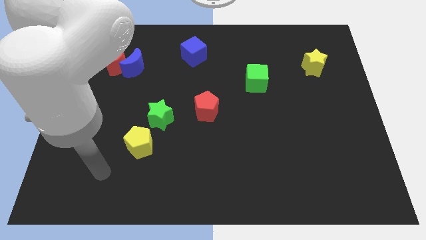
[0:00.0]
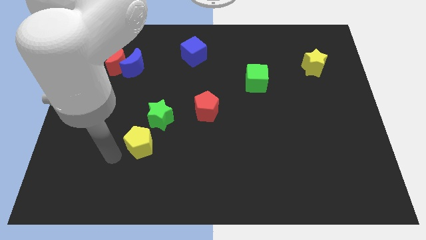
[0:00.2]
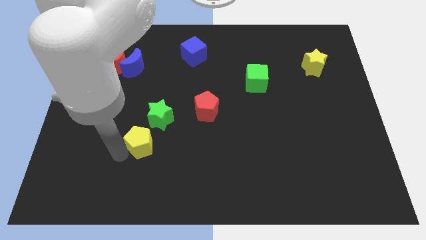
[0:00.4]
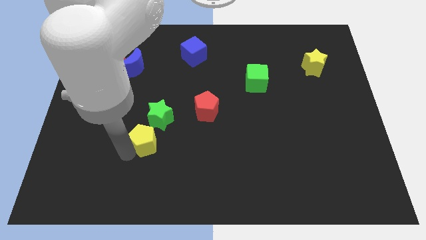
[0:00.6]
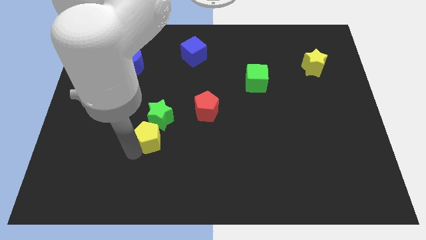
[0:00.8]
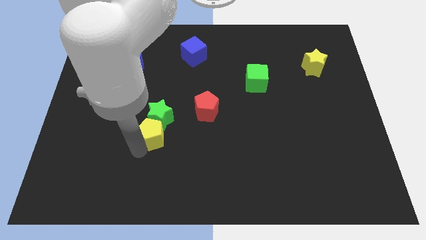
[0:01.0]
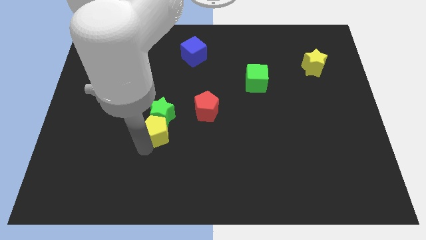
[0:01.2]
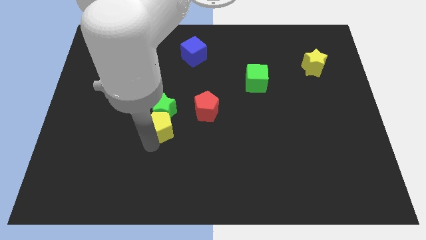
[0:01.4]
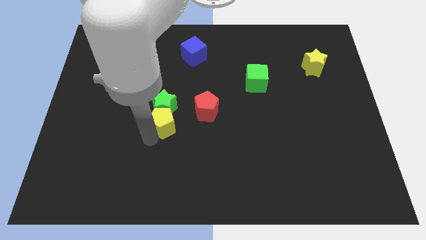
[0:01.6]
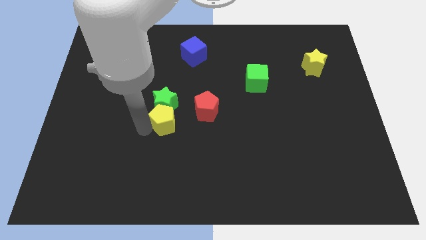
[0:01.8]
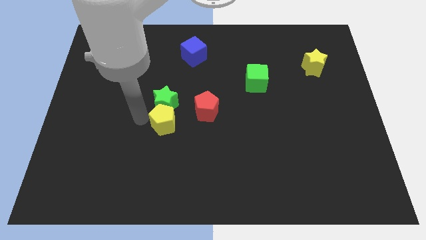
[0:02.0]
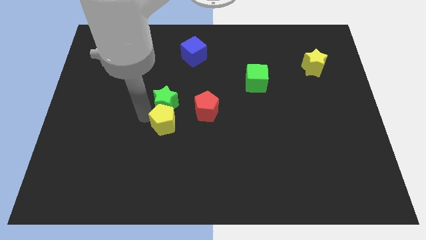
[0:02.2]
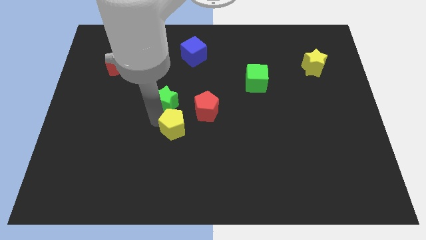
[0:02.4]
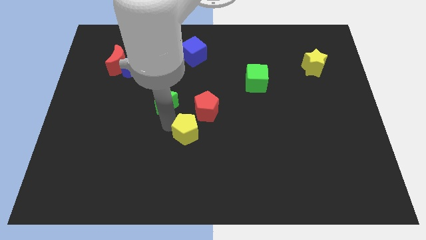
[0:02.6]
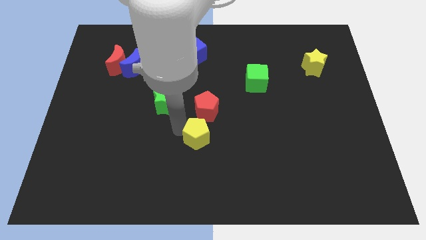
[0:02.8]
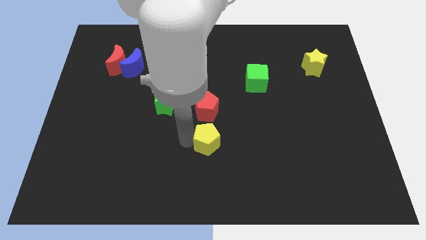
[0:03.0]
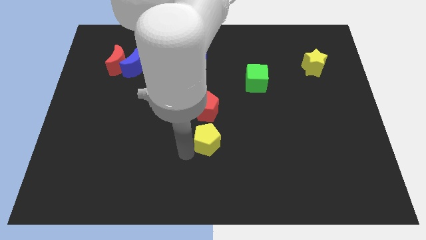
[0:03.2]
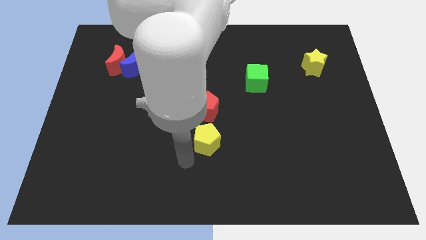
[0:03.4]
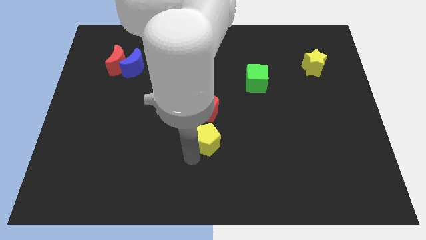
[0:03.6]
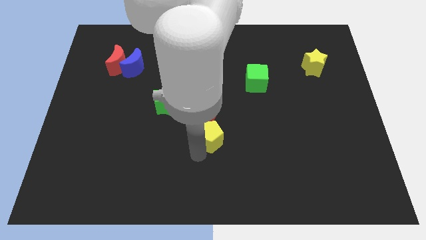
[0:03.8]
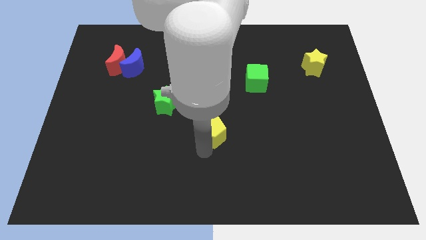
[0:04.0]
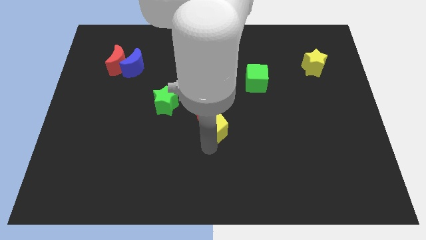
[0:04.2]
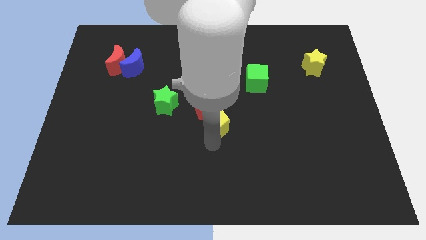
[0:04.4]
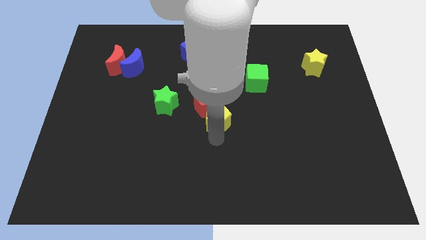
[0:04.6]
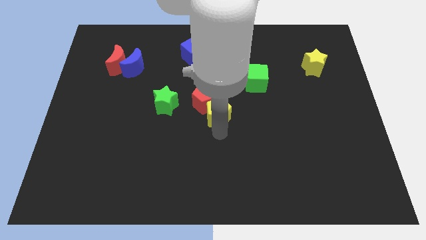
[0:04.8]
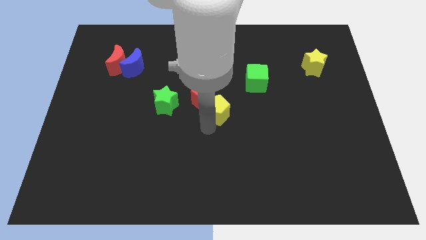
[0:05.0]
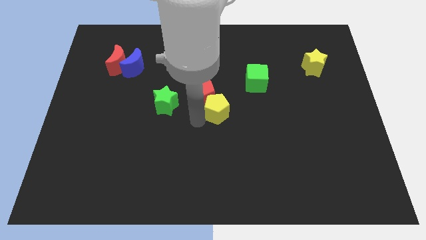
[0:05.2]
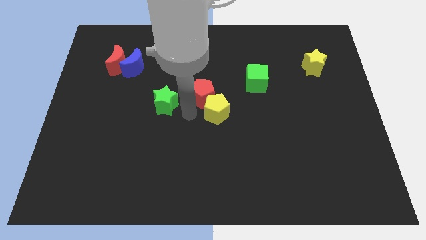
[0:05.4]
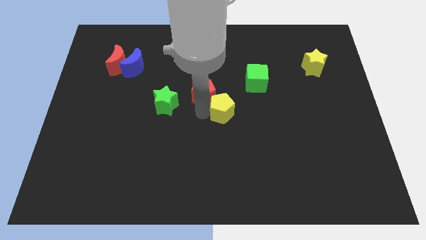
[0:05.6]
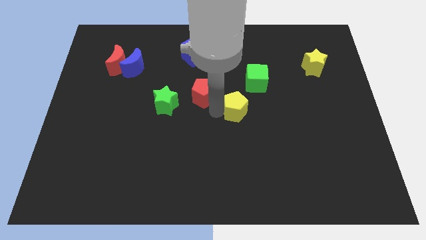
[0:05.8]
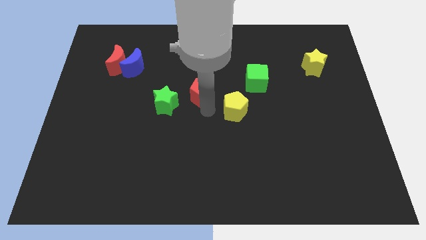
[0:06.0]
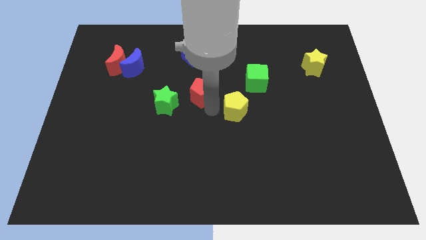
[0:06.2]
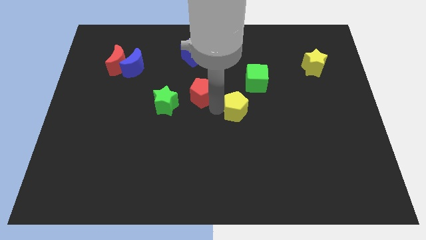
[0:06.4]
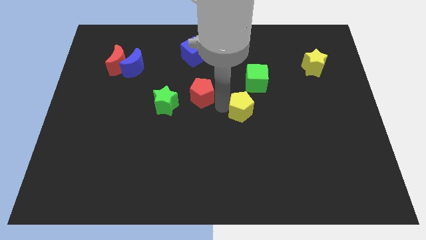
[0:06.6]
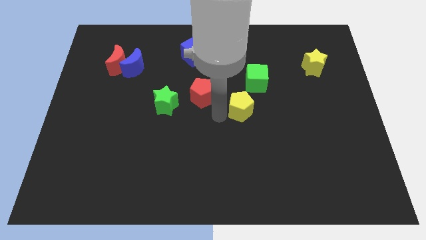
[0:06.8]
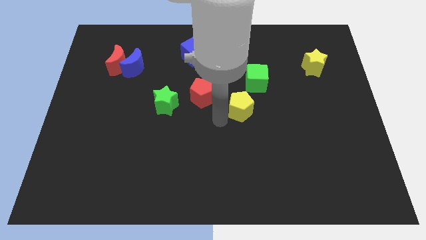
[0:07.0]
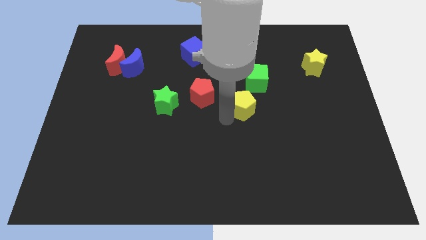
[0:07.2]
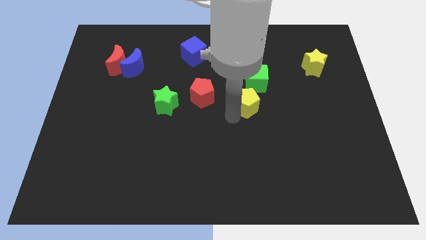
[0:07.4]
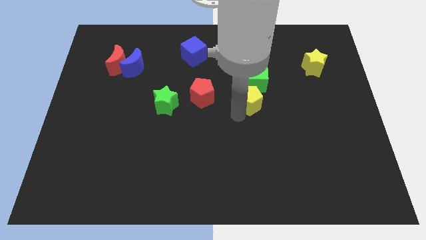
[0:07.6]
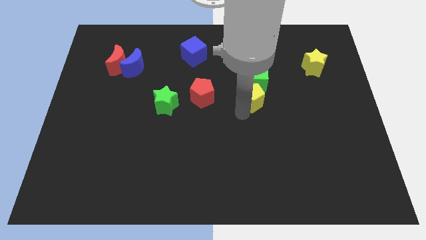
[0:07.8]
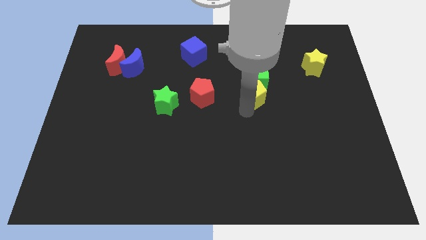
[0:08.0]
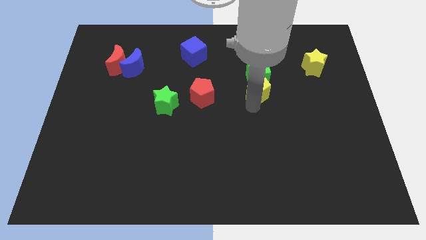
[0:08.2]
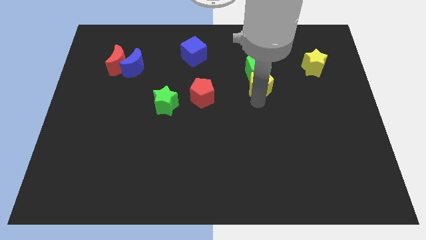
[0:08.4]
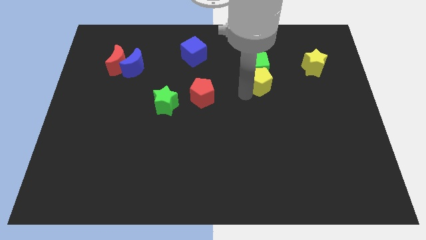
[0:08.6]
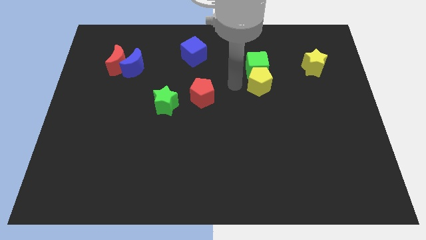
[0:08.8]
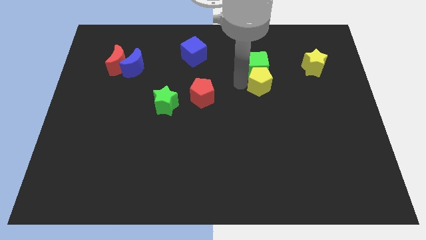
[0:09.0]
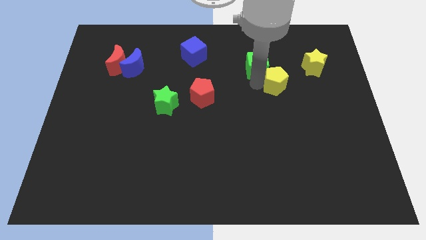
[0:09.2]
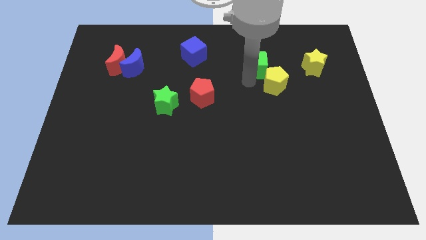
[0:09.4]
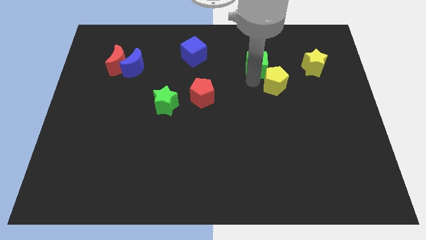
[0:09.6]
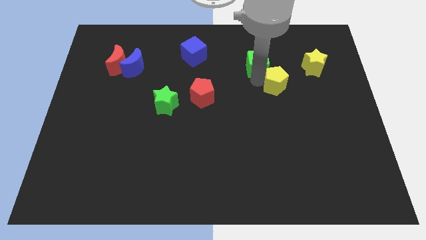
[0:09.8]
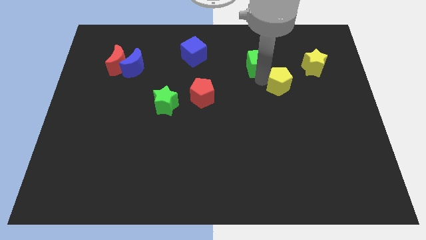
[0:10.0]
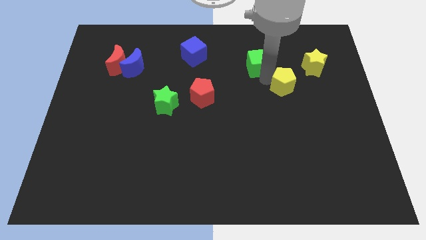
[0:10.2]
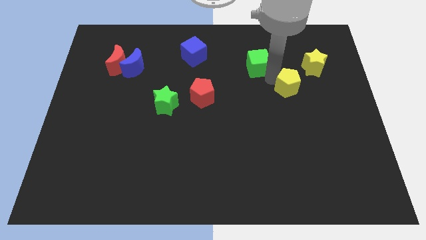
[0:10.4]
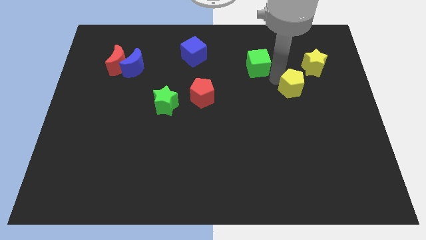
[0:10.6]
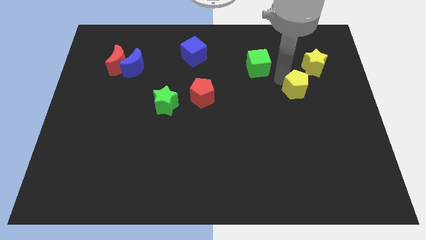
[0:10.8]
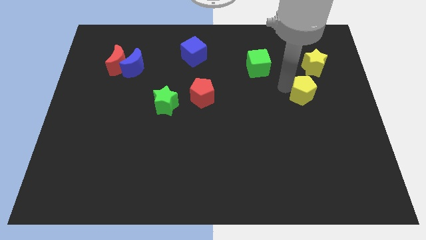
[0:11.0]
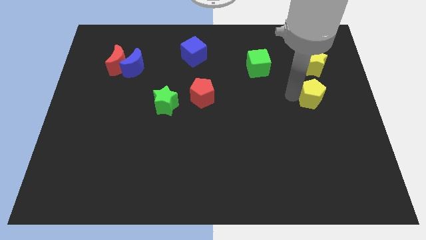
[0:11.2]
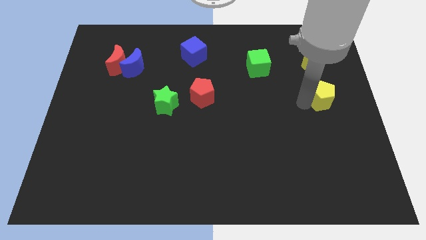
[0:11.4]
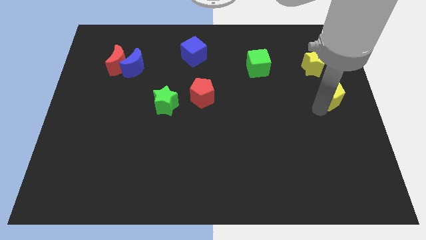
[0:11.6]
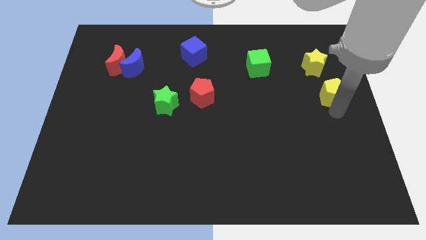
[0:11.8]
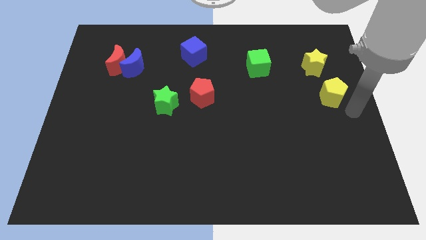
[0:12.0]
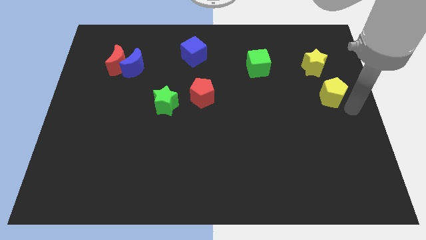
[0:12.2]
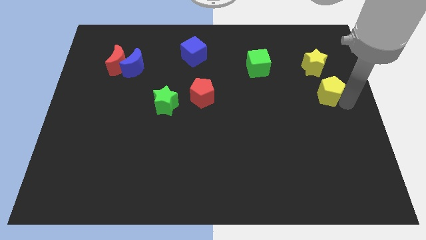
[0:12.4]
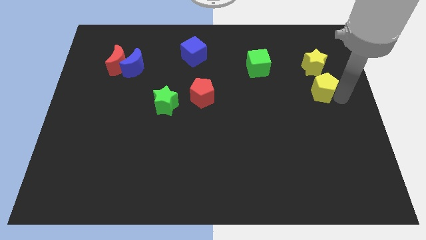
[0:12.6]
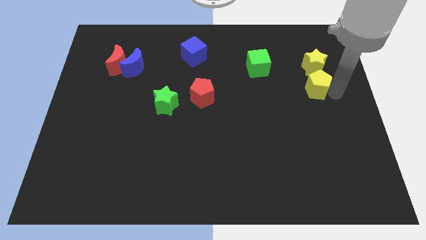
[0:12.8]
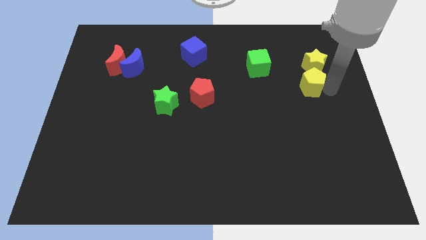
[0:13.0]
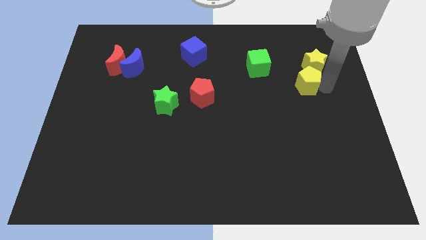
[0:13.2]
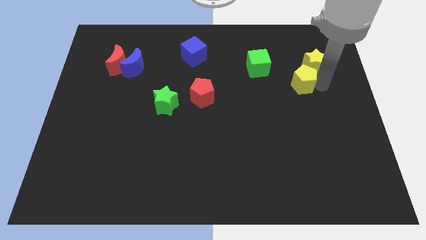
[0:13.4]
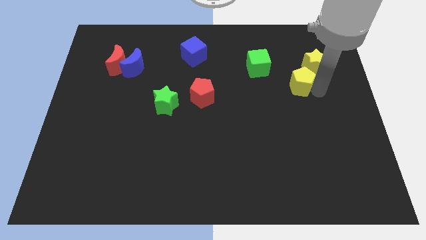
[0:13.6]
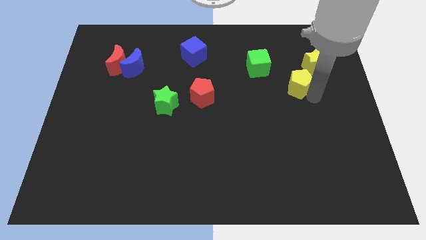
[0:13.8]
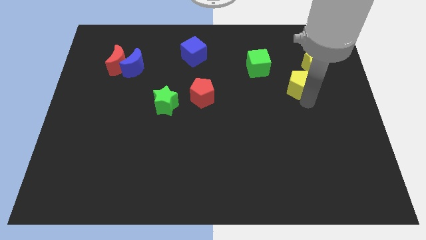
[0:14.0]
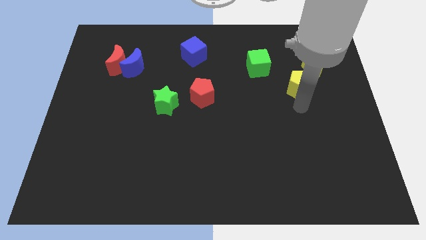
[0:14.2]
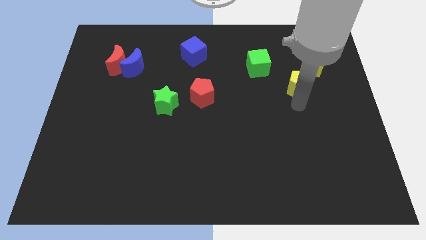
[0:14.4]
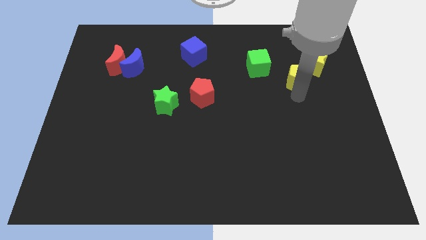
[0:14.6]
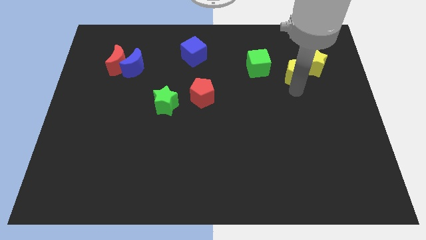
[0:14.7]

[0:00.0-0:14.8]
slide the yellow pentagon close to the yellow star
